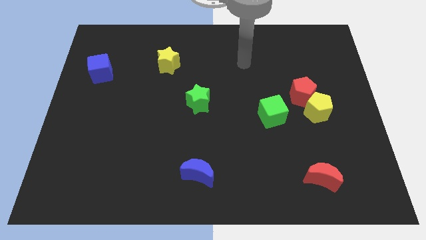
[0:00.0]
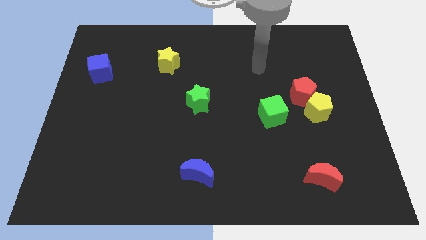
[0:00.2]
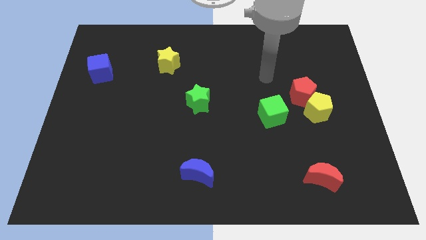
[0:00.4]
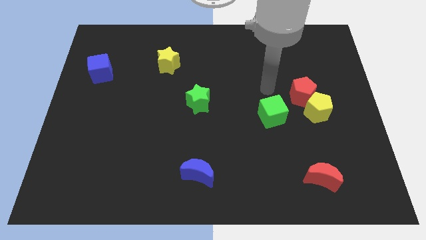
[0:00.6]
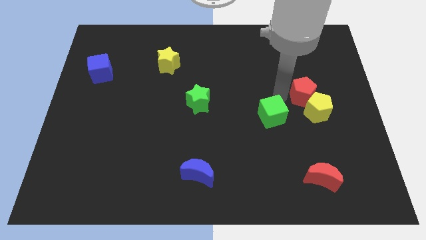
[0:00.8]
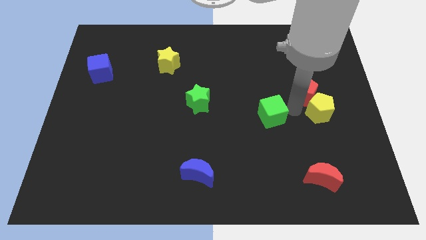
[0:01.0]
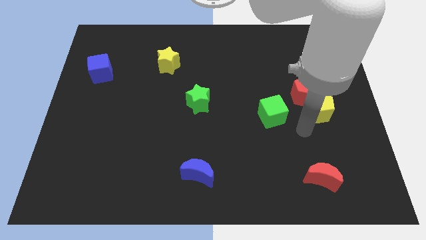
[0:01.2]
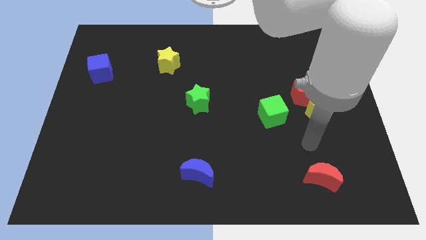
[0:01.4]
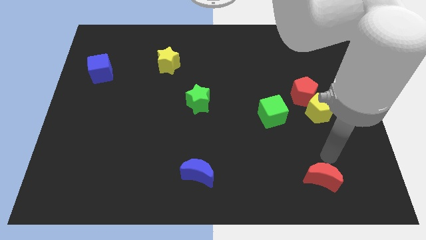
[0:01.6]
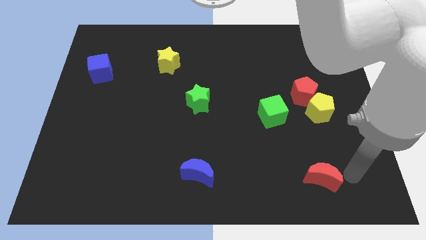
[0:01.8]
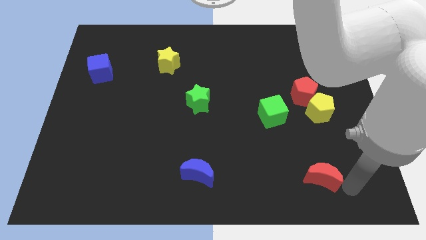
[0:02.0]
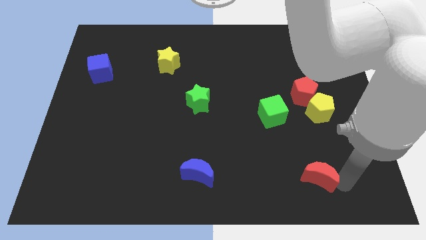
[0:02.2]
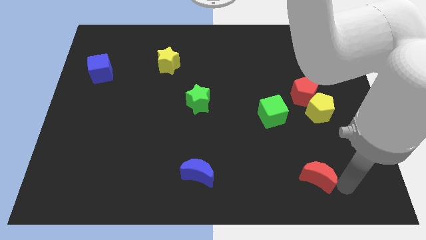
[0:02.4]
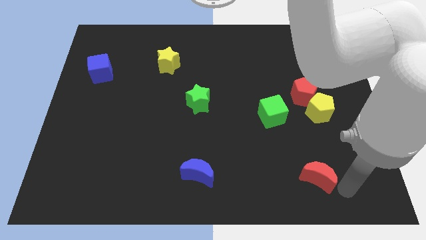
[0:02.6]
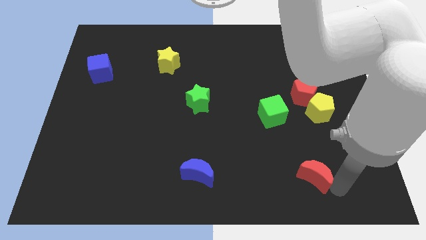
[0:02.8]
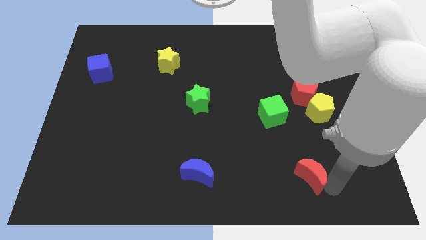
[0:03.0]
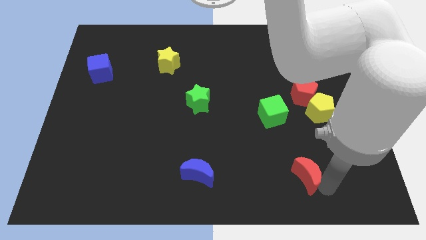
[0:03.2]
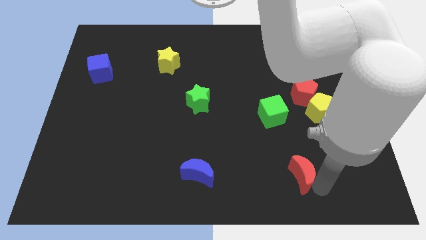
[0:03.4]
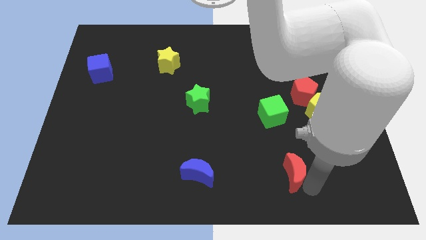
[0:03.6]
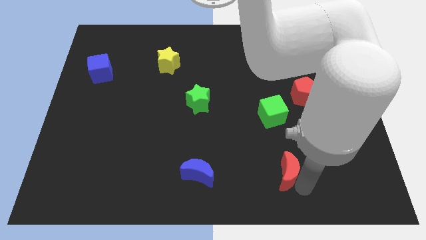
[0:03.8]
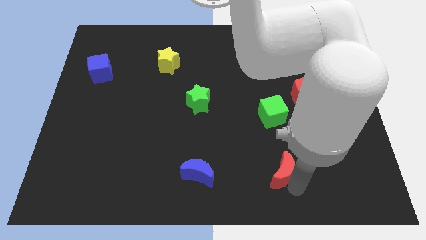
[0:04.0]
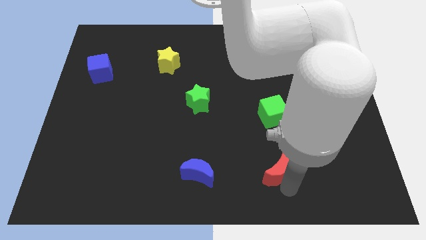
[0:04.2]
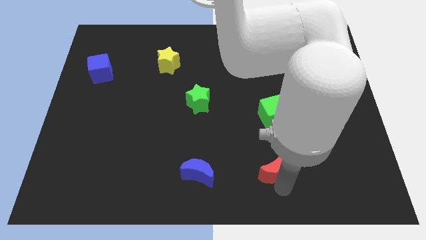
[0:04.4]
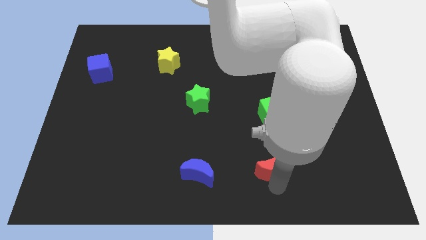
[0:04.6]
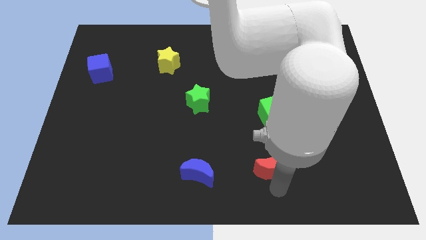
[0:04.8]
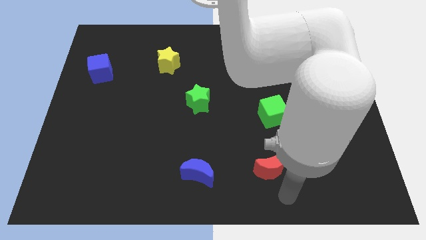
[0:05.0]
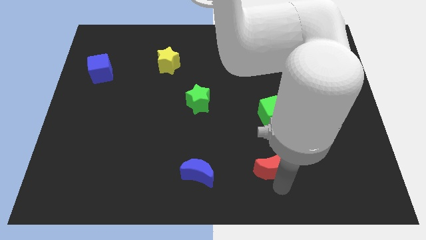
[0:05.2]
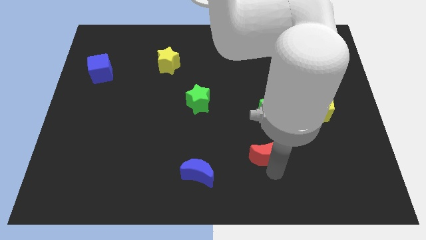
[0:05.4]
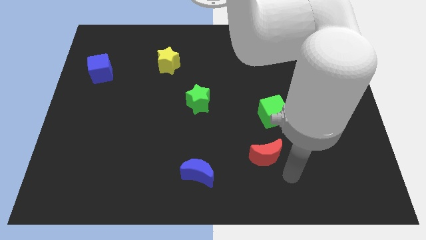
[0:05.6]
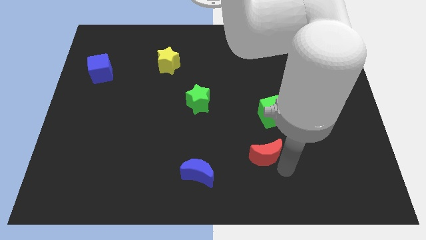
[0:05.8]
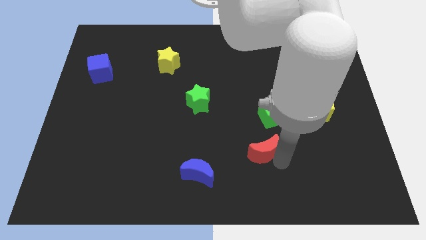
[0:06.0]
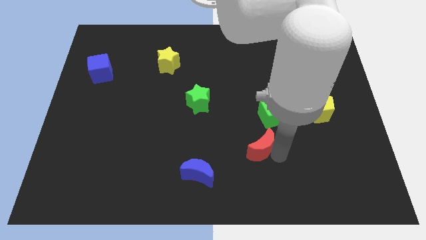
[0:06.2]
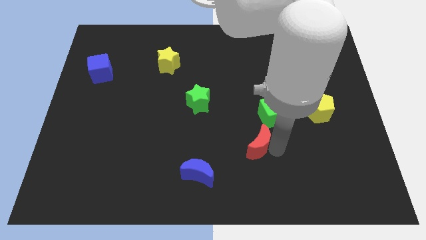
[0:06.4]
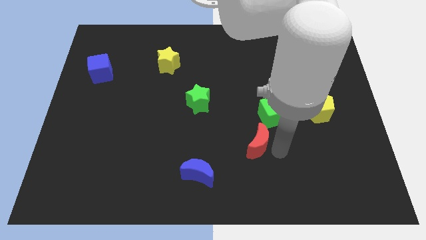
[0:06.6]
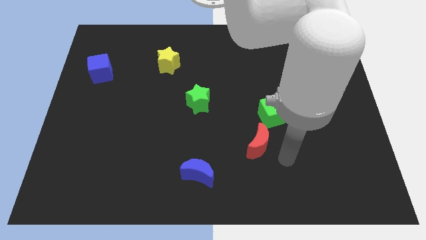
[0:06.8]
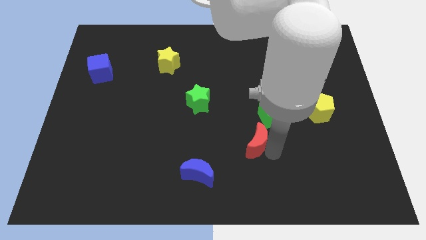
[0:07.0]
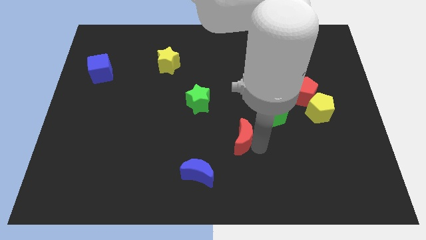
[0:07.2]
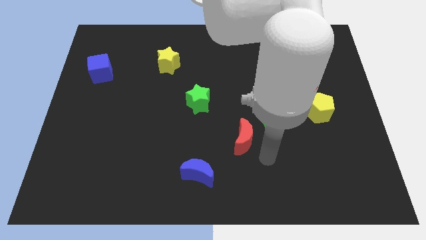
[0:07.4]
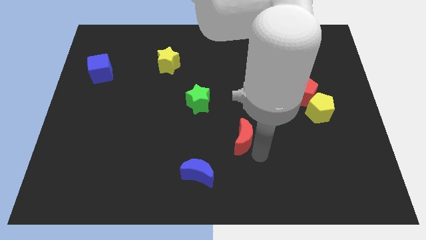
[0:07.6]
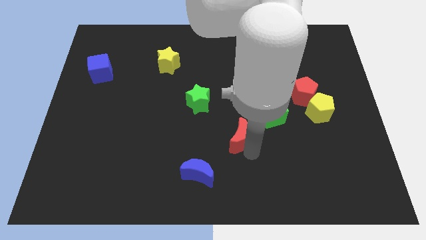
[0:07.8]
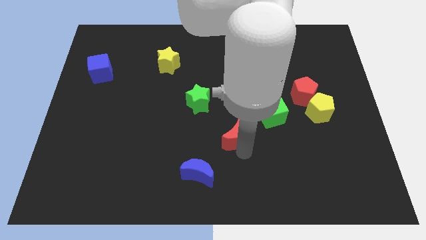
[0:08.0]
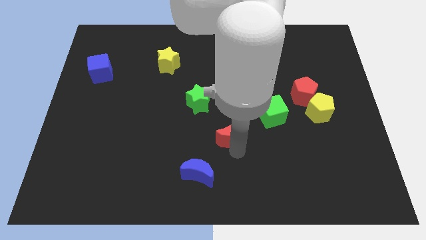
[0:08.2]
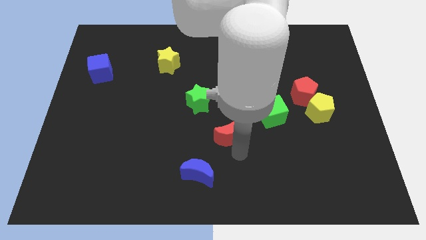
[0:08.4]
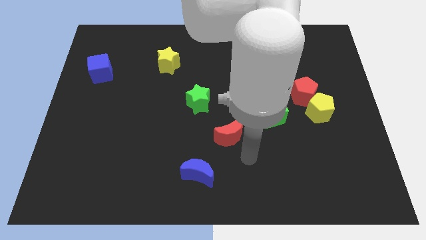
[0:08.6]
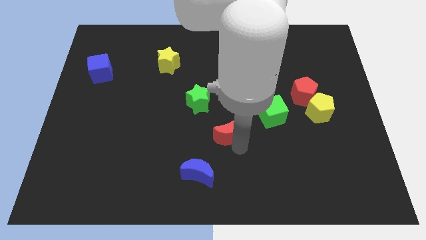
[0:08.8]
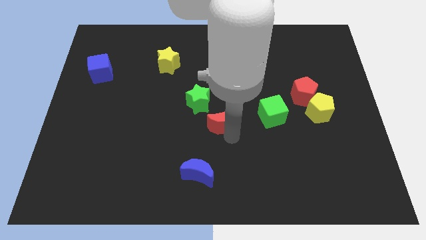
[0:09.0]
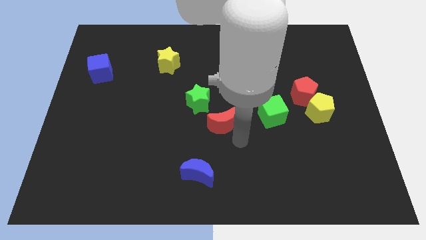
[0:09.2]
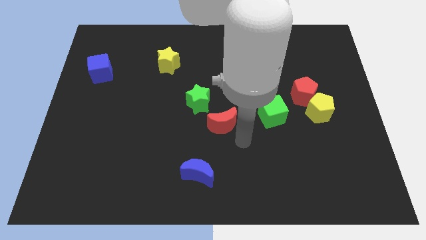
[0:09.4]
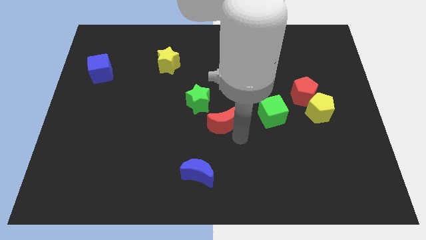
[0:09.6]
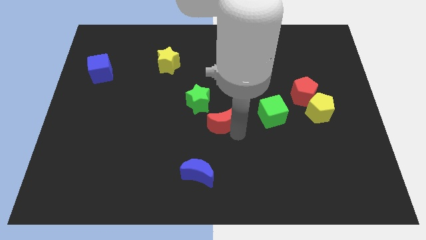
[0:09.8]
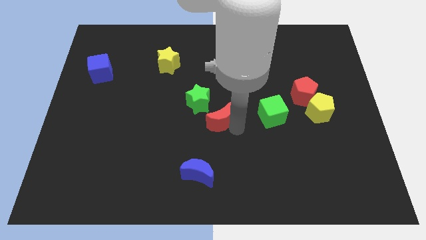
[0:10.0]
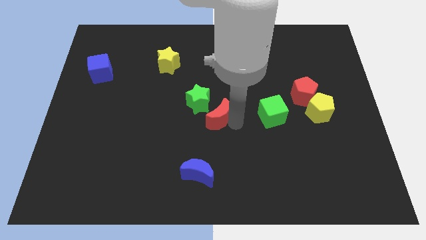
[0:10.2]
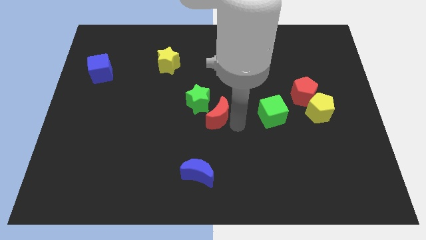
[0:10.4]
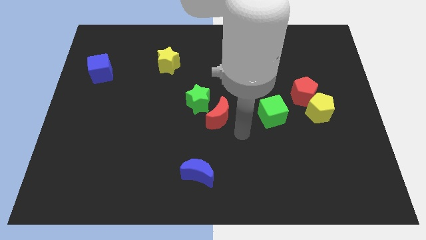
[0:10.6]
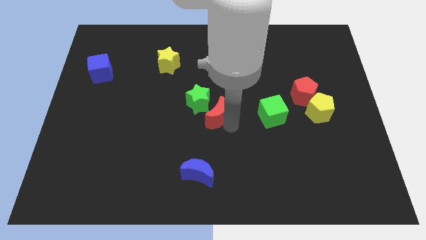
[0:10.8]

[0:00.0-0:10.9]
move the red moon to the green star

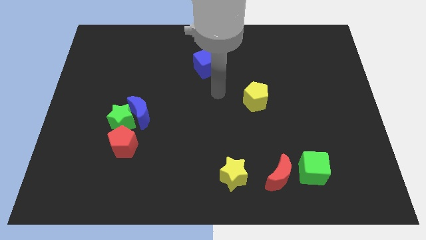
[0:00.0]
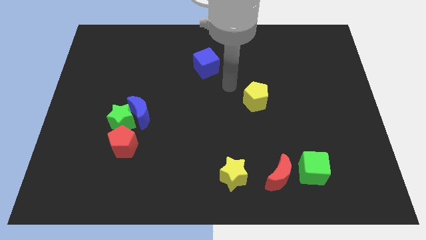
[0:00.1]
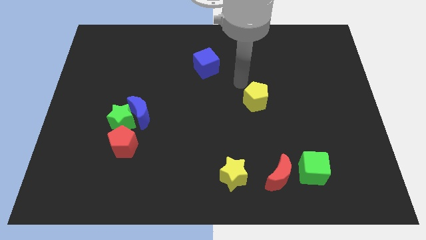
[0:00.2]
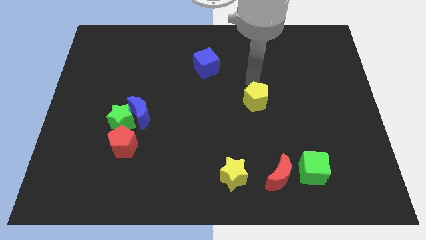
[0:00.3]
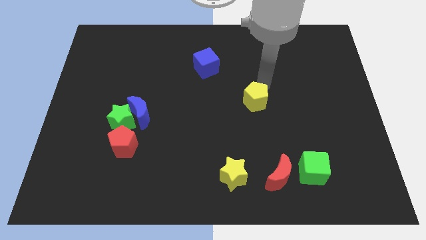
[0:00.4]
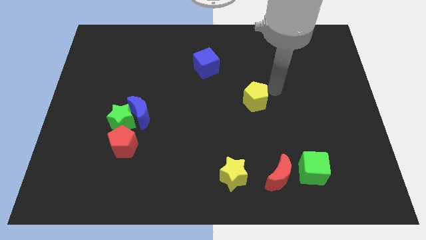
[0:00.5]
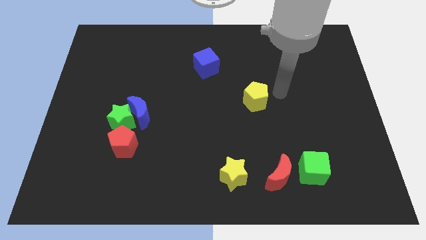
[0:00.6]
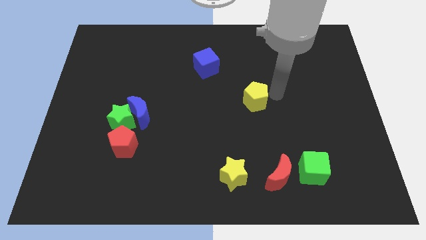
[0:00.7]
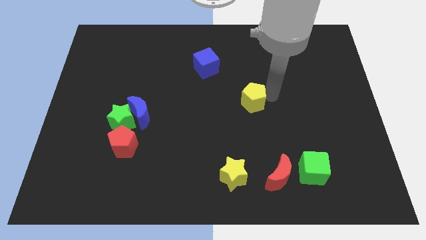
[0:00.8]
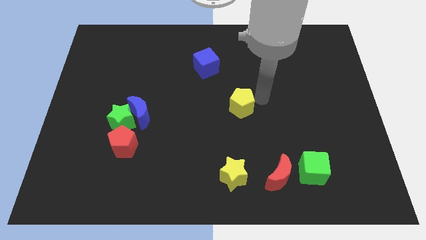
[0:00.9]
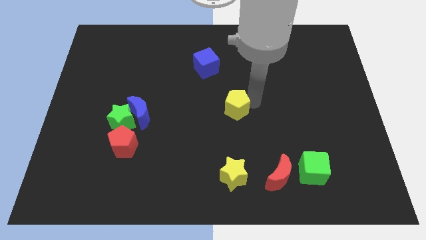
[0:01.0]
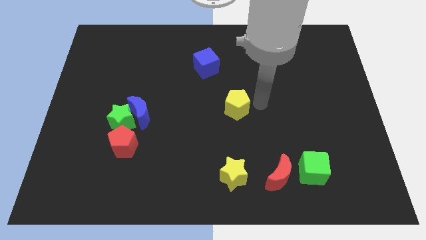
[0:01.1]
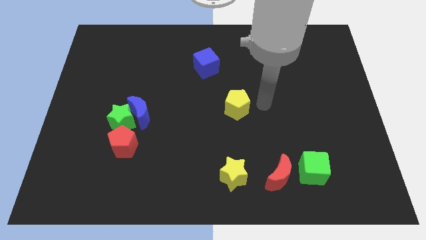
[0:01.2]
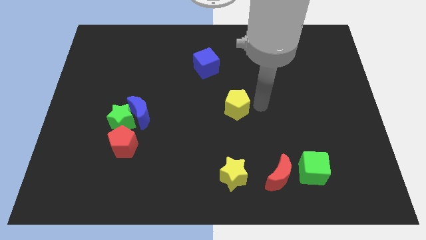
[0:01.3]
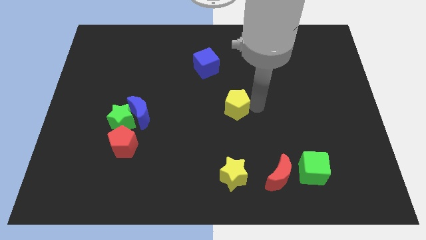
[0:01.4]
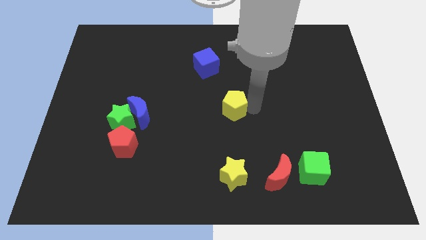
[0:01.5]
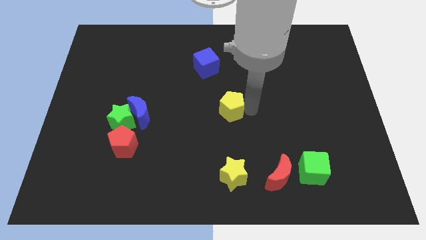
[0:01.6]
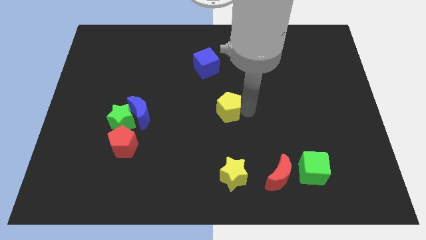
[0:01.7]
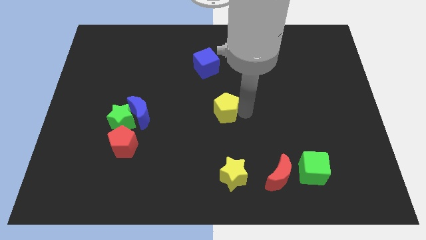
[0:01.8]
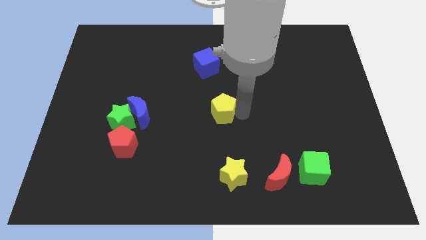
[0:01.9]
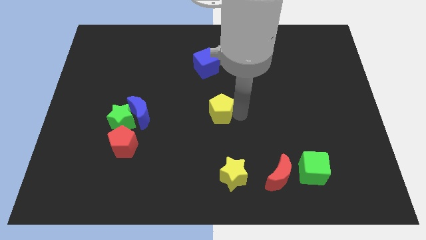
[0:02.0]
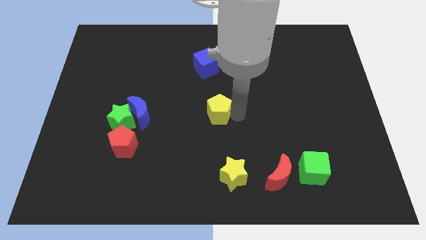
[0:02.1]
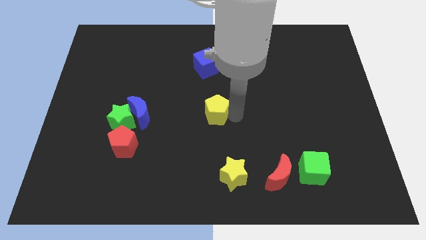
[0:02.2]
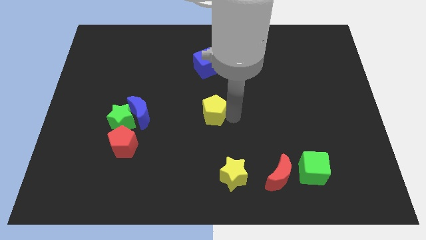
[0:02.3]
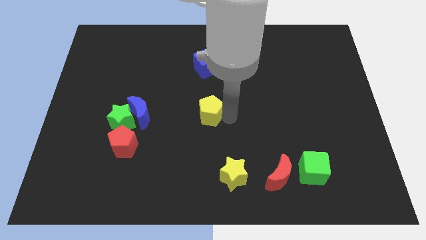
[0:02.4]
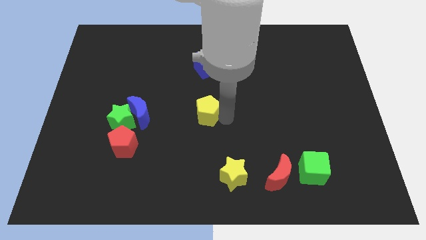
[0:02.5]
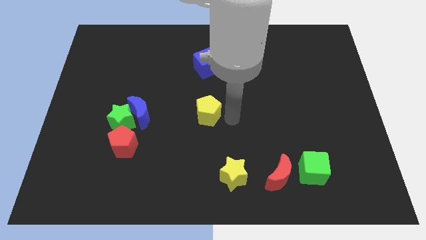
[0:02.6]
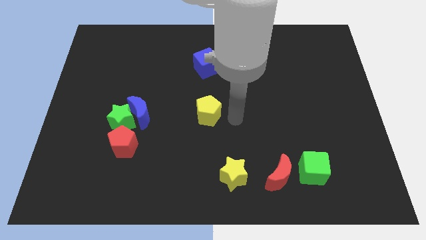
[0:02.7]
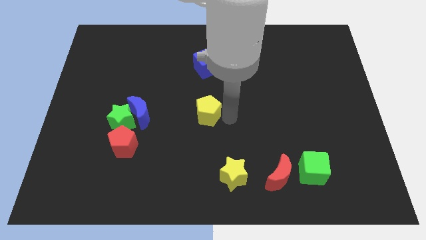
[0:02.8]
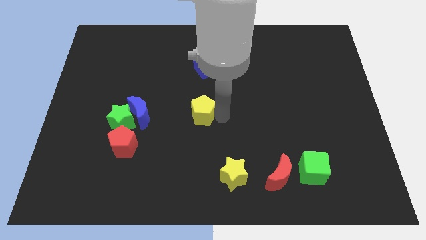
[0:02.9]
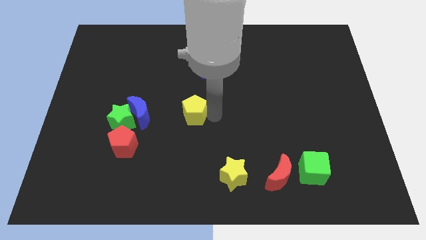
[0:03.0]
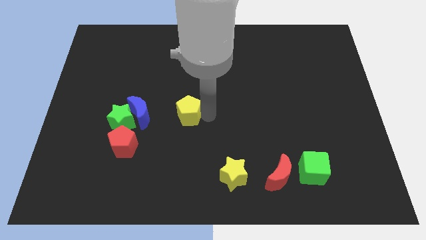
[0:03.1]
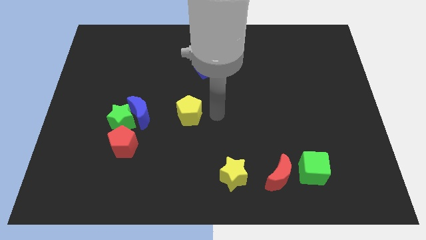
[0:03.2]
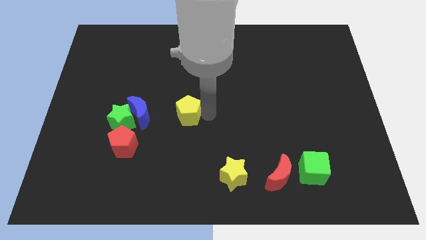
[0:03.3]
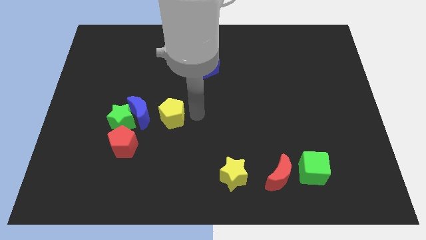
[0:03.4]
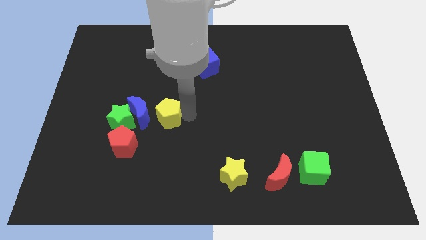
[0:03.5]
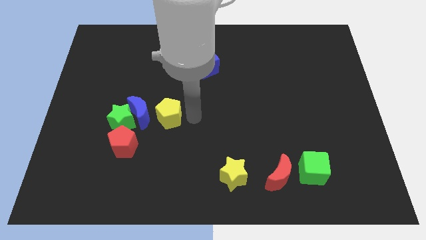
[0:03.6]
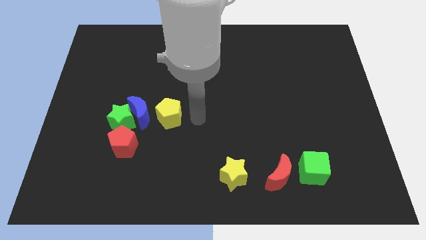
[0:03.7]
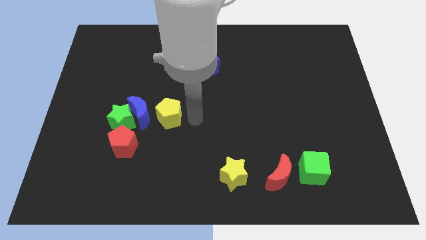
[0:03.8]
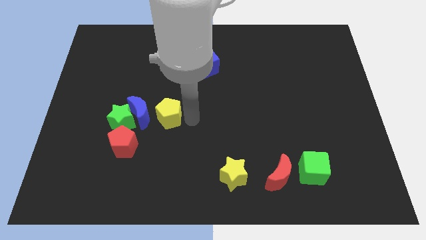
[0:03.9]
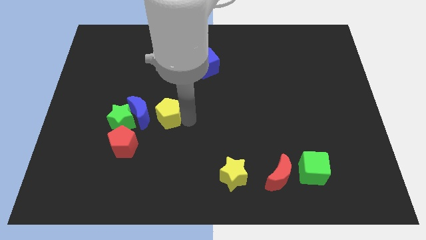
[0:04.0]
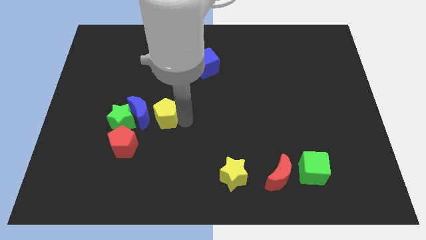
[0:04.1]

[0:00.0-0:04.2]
put the yellow pentagon close to the blue moon
